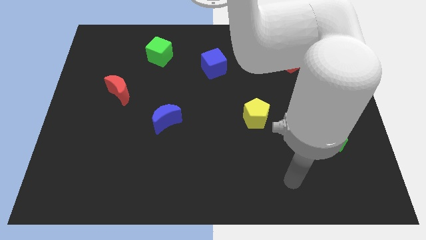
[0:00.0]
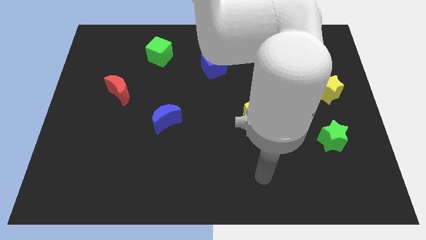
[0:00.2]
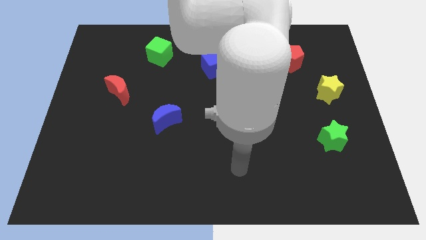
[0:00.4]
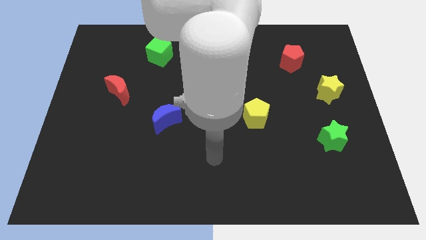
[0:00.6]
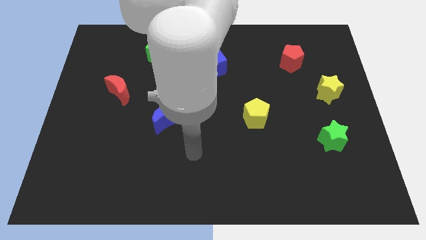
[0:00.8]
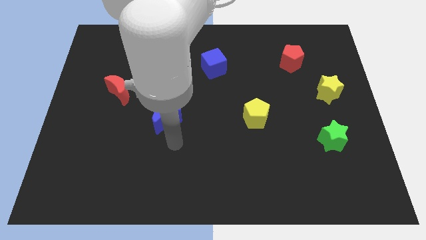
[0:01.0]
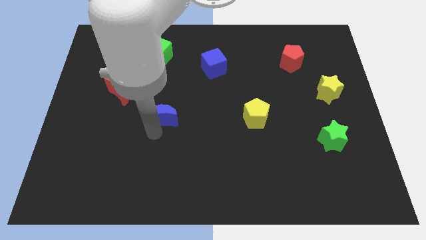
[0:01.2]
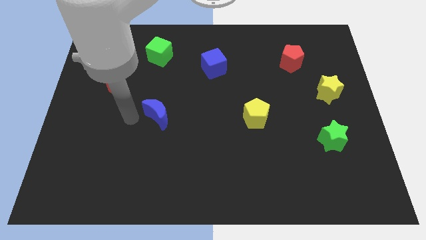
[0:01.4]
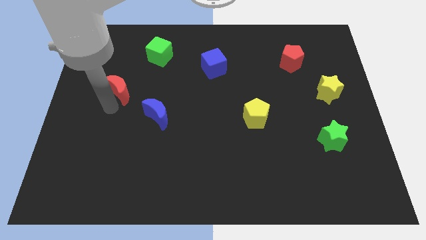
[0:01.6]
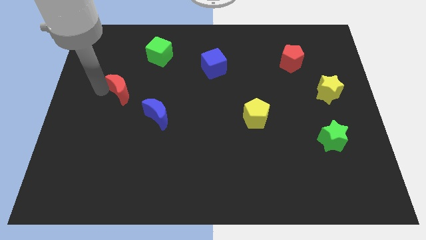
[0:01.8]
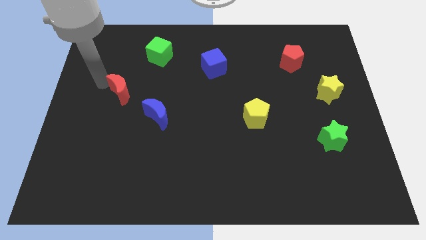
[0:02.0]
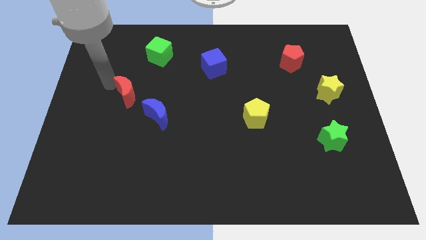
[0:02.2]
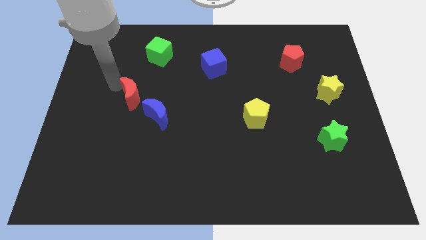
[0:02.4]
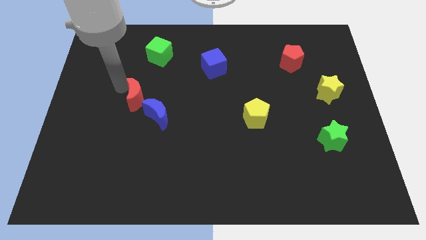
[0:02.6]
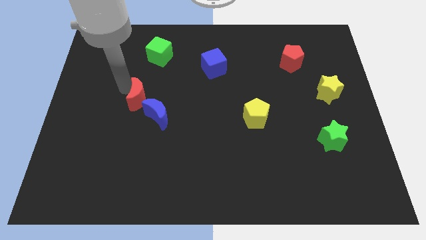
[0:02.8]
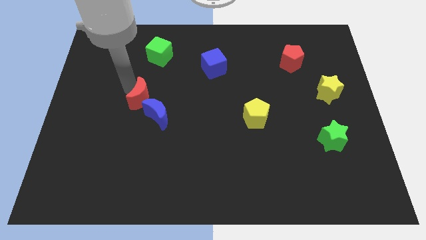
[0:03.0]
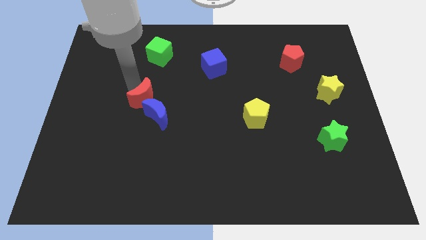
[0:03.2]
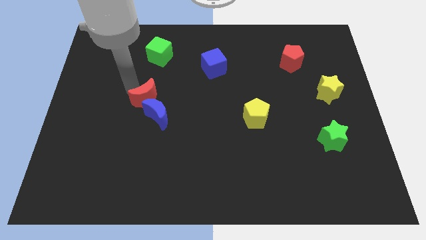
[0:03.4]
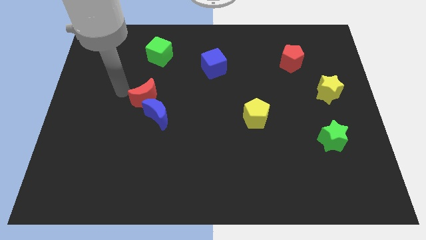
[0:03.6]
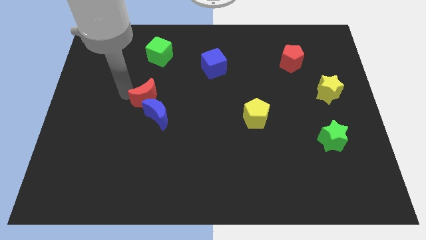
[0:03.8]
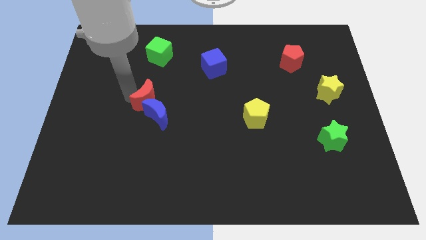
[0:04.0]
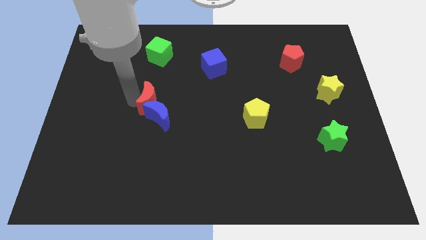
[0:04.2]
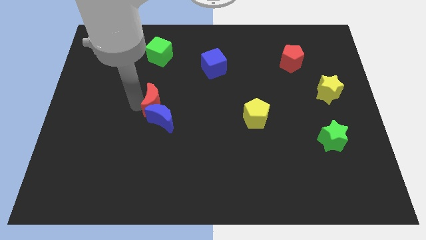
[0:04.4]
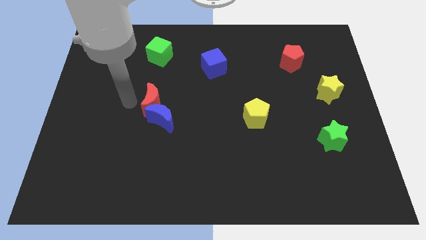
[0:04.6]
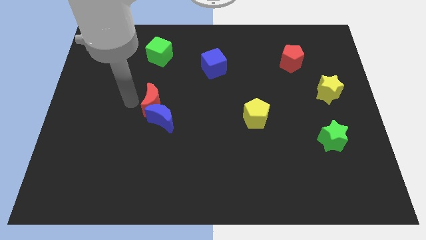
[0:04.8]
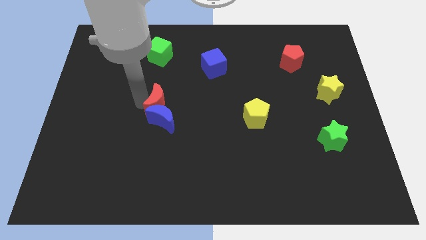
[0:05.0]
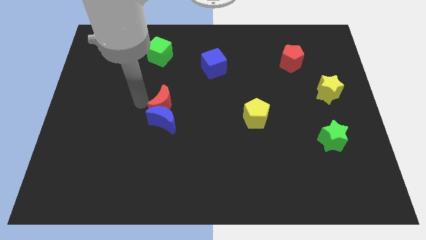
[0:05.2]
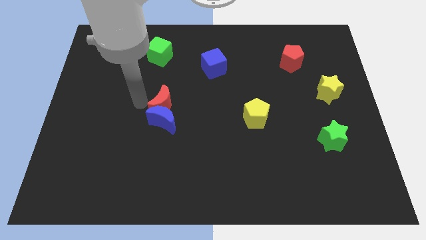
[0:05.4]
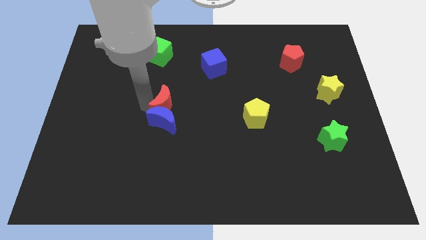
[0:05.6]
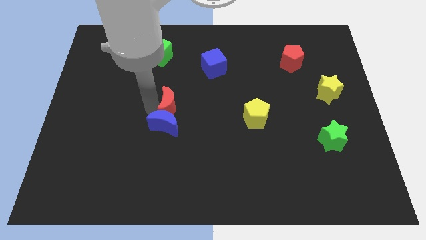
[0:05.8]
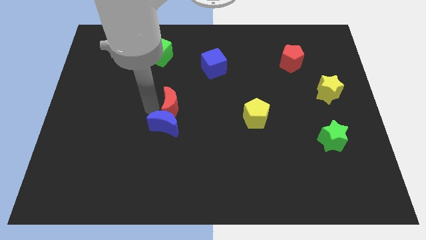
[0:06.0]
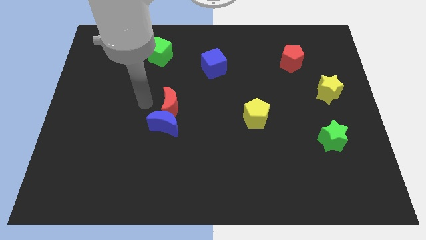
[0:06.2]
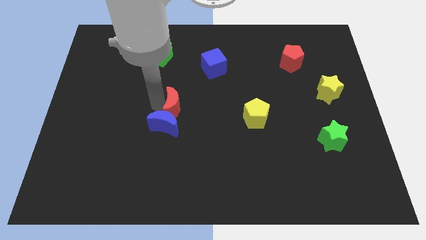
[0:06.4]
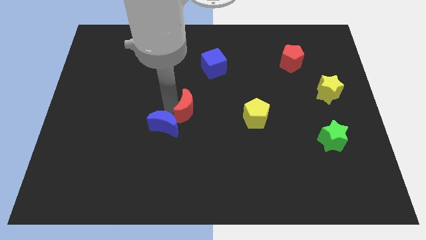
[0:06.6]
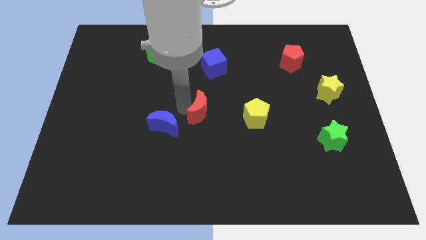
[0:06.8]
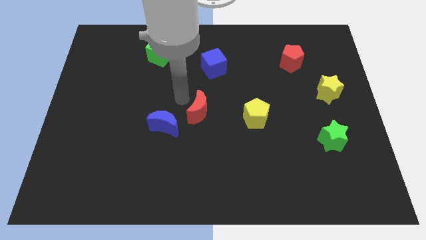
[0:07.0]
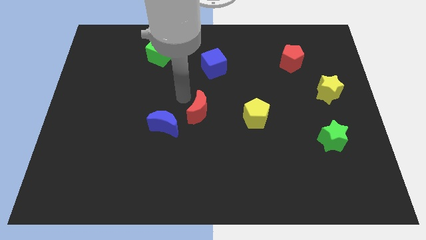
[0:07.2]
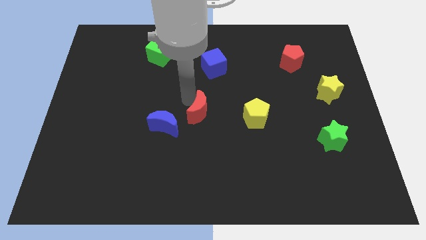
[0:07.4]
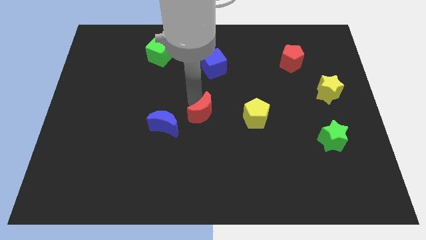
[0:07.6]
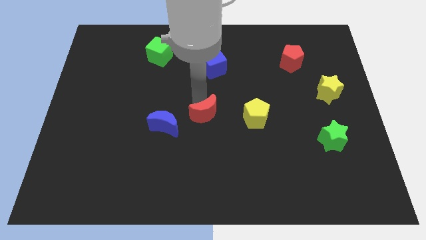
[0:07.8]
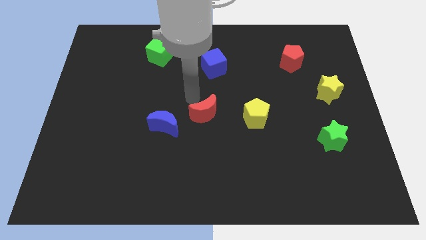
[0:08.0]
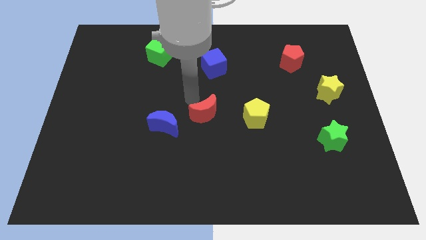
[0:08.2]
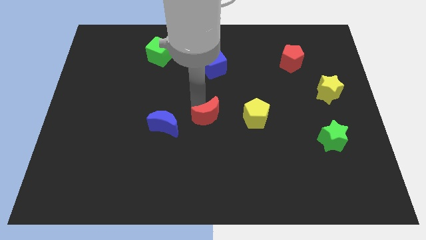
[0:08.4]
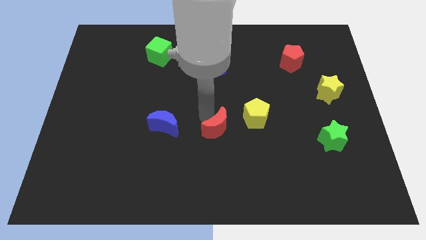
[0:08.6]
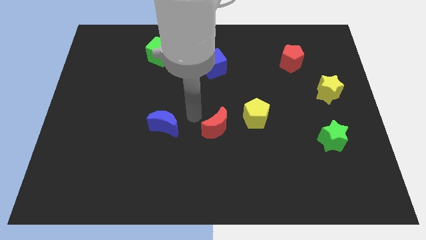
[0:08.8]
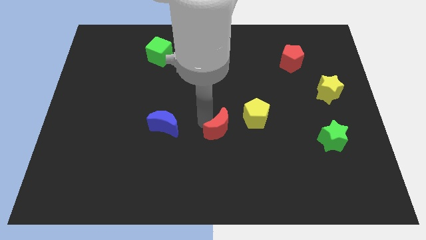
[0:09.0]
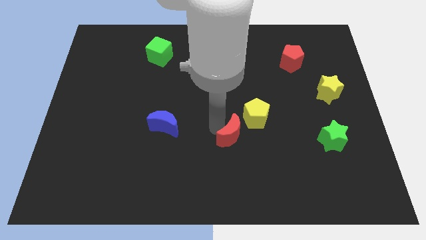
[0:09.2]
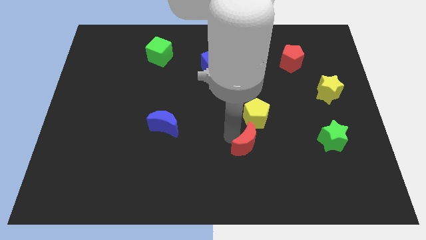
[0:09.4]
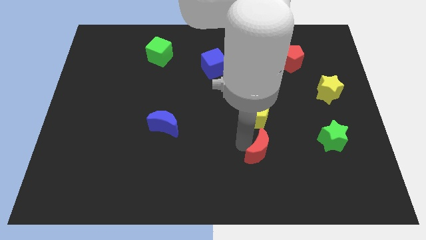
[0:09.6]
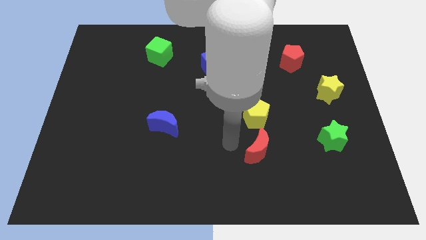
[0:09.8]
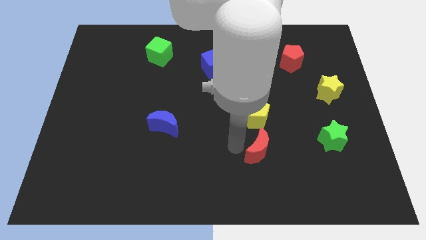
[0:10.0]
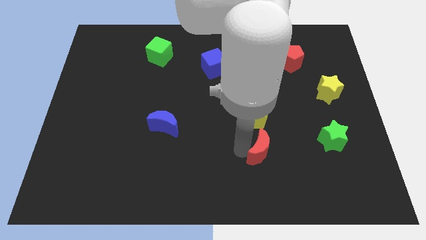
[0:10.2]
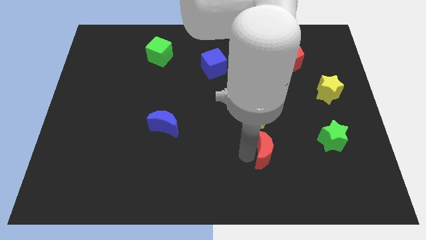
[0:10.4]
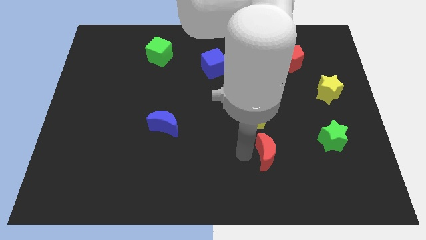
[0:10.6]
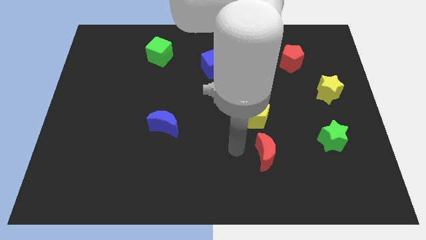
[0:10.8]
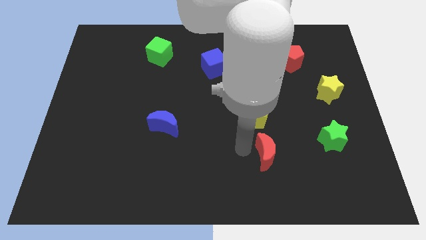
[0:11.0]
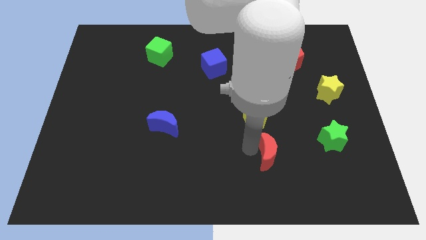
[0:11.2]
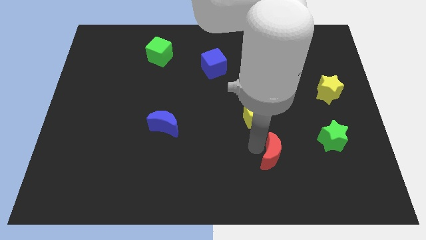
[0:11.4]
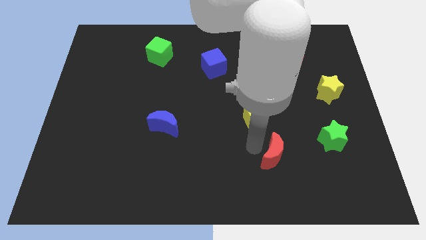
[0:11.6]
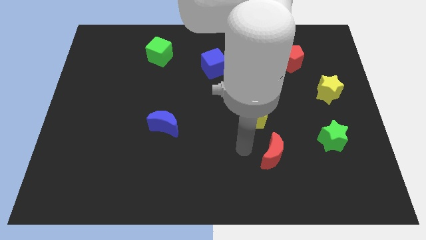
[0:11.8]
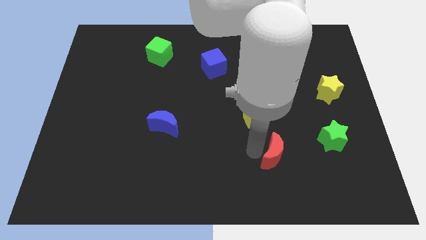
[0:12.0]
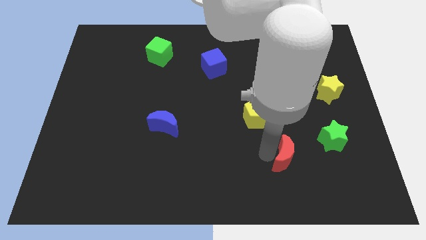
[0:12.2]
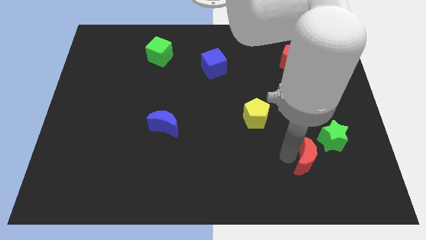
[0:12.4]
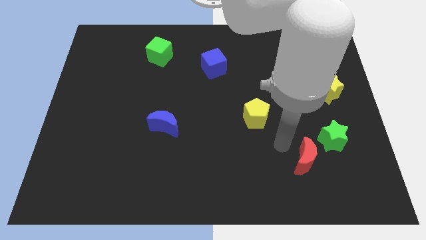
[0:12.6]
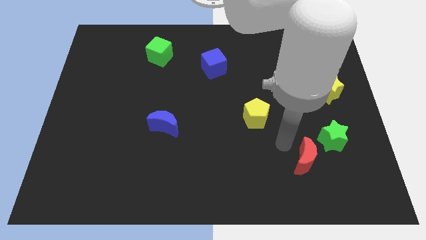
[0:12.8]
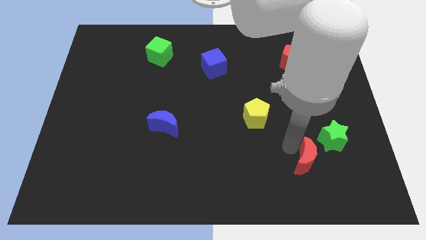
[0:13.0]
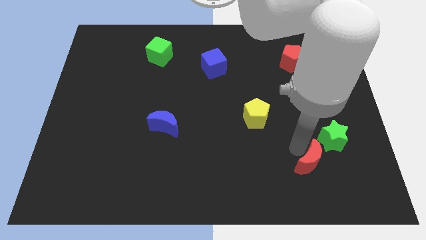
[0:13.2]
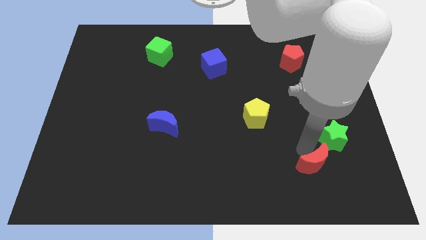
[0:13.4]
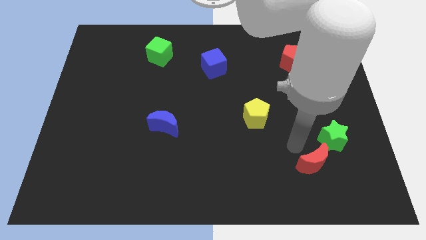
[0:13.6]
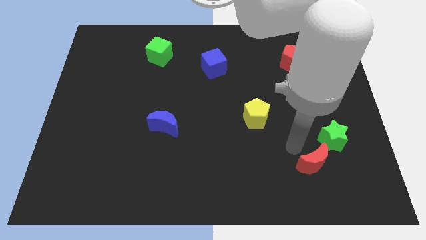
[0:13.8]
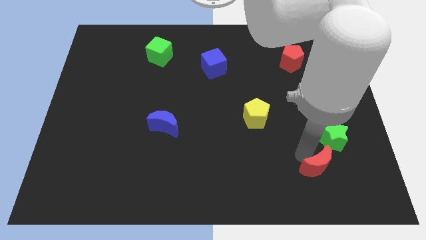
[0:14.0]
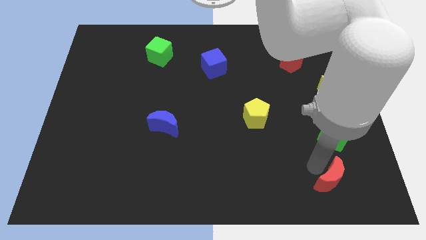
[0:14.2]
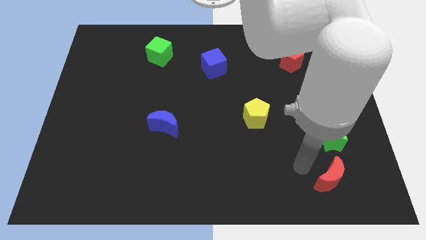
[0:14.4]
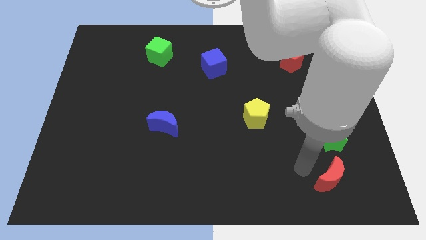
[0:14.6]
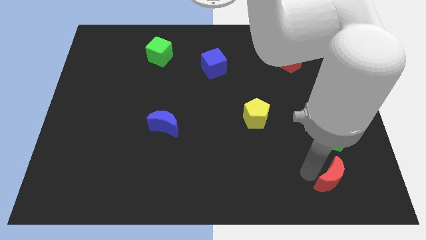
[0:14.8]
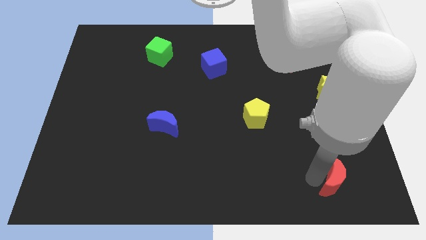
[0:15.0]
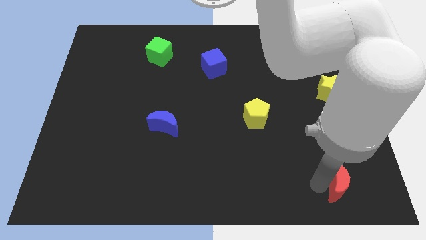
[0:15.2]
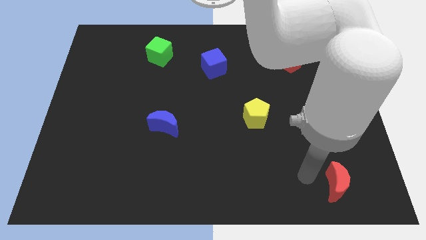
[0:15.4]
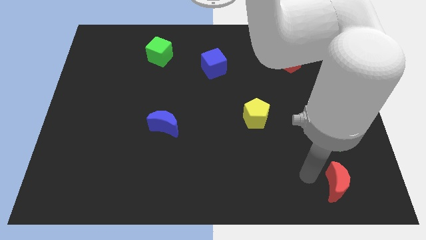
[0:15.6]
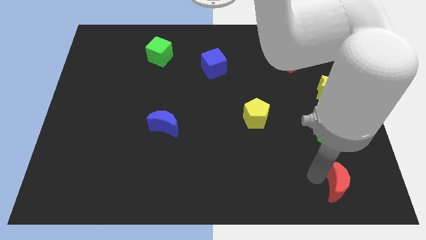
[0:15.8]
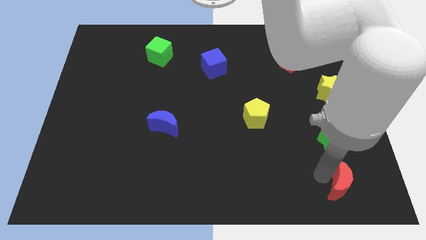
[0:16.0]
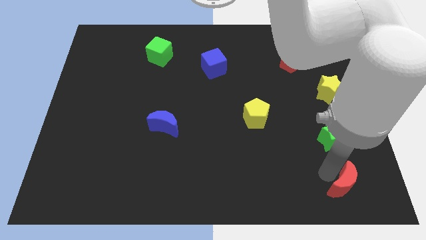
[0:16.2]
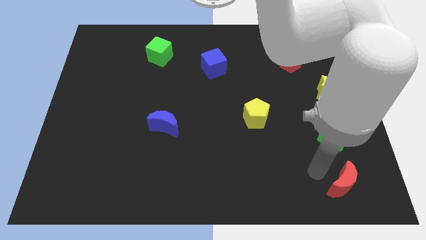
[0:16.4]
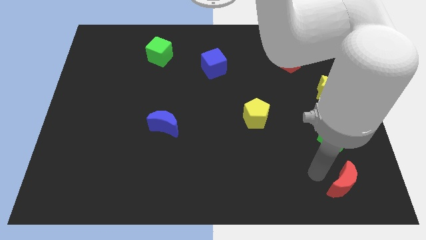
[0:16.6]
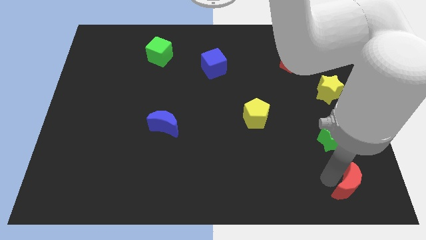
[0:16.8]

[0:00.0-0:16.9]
push the red moon to the bottom right of the board
